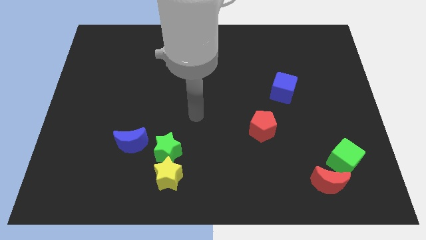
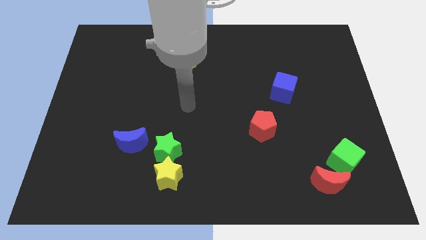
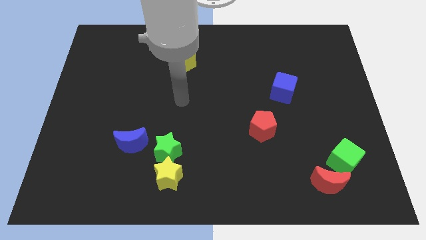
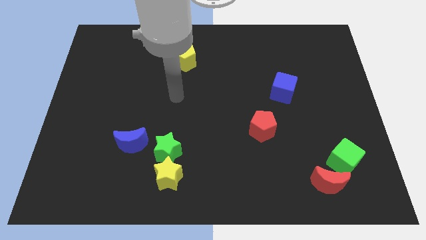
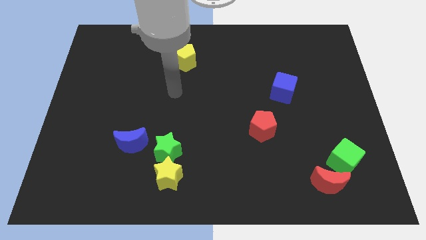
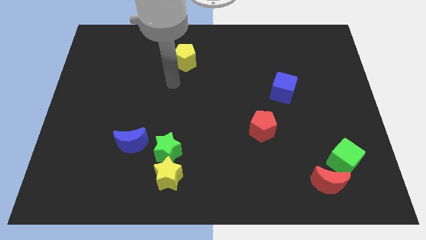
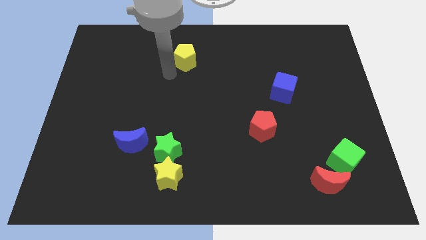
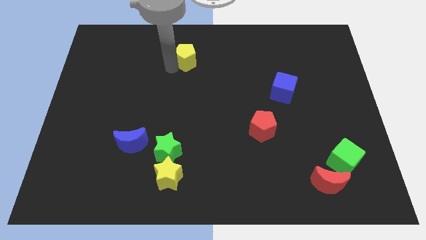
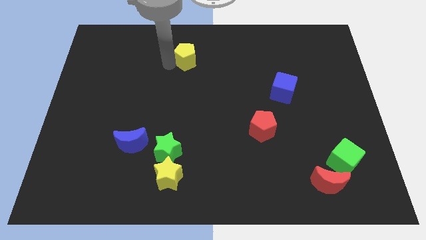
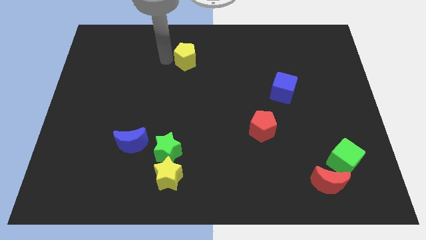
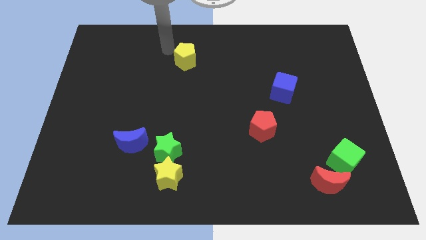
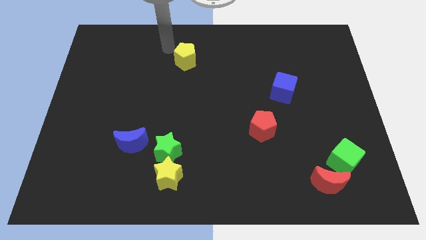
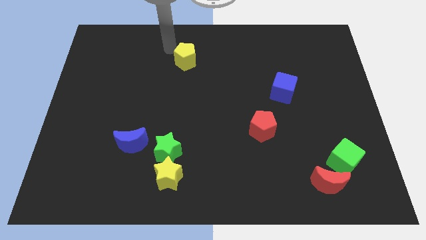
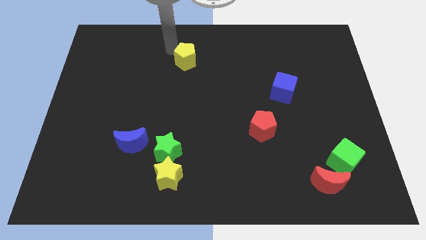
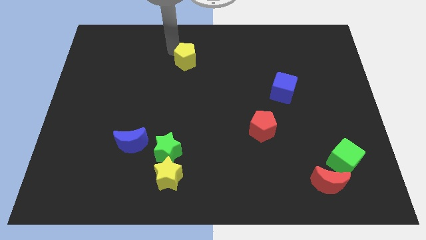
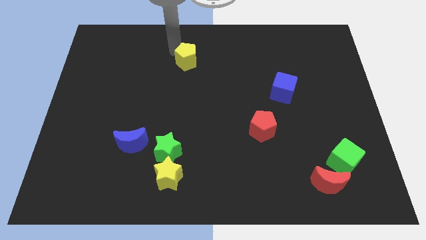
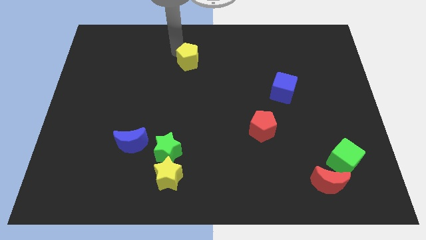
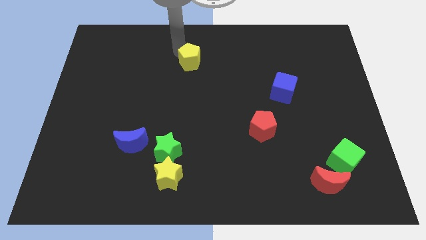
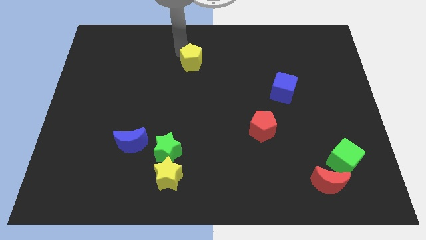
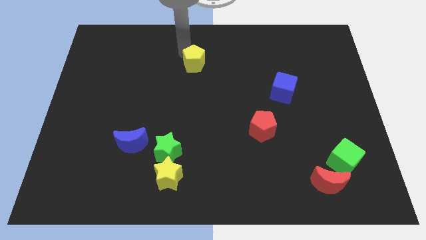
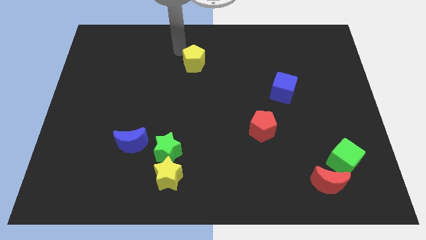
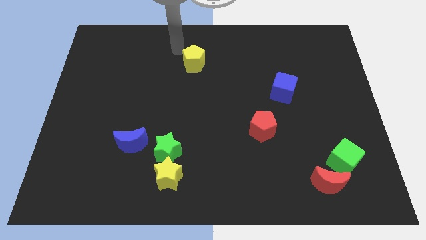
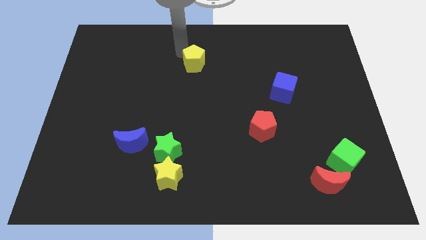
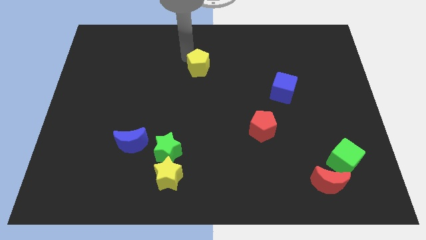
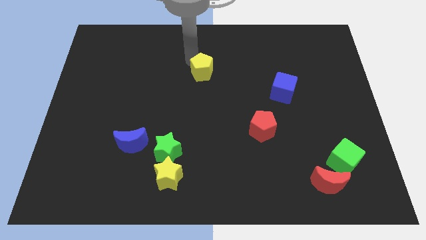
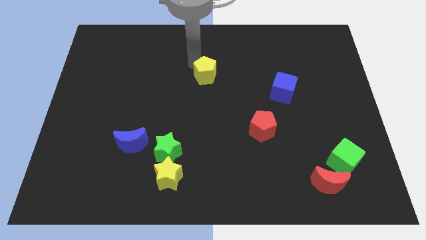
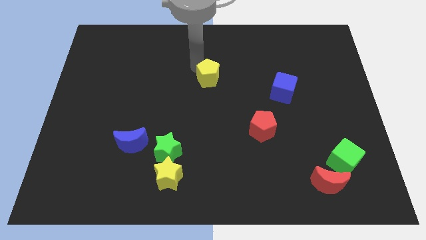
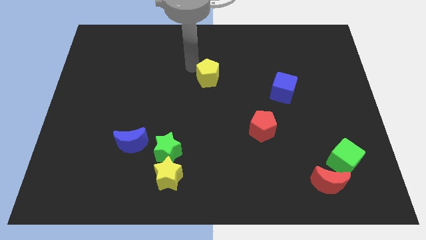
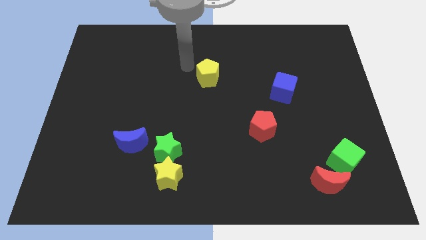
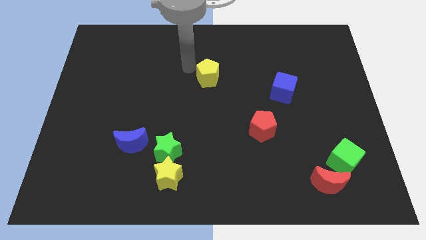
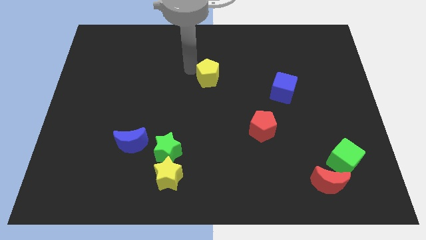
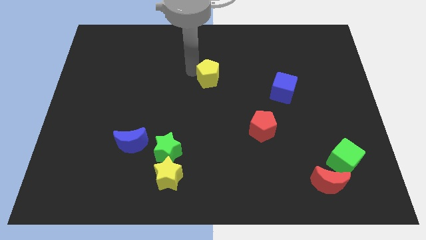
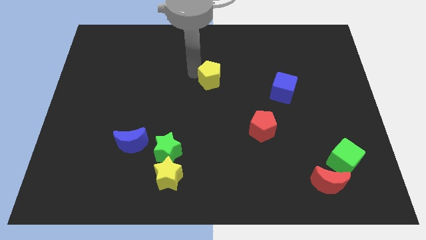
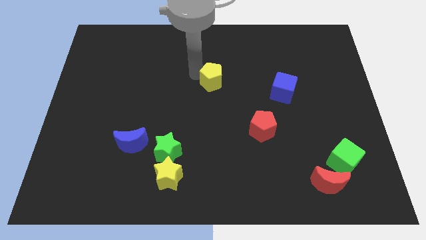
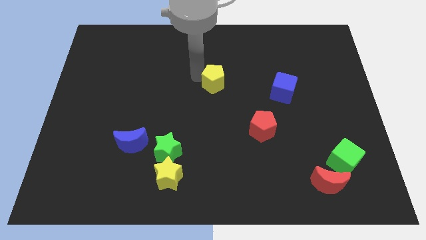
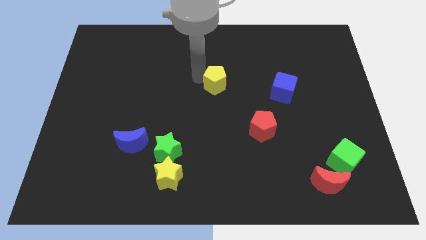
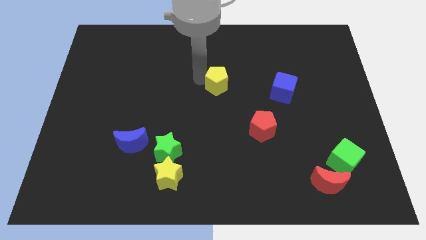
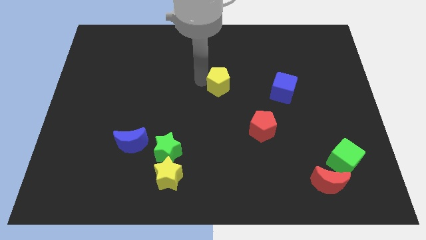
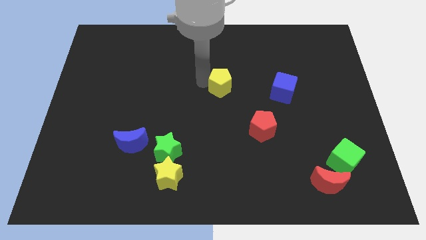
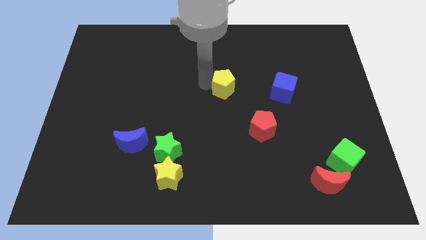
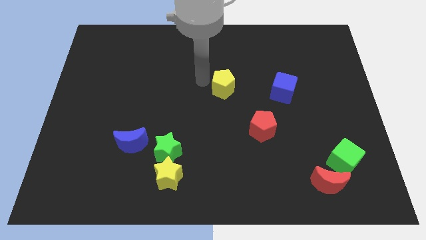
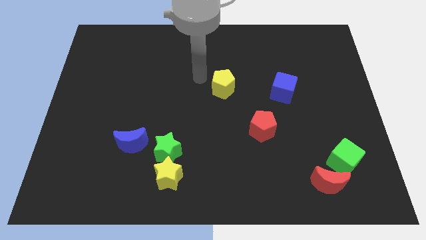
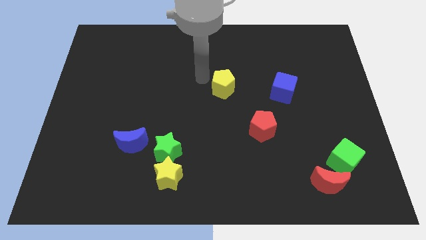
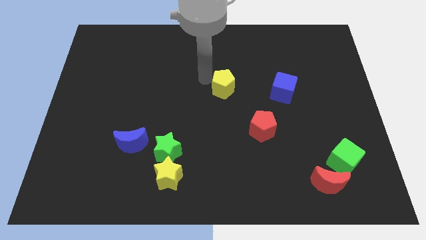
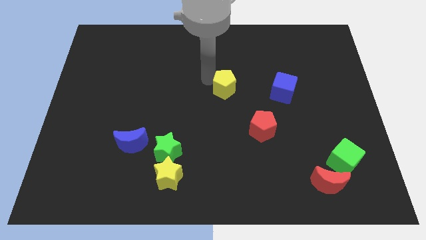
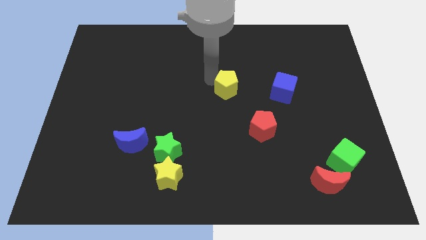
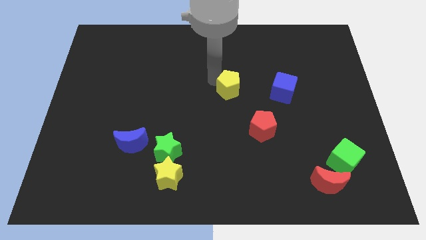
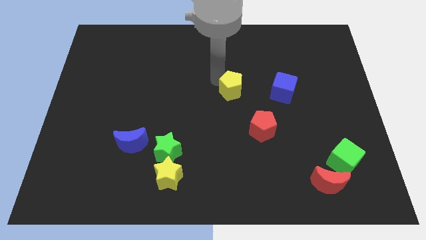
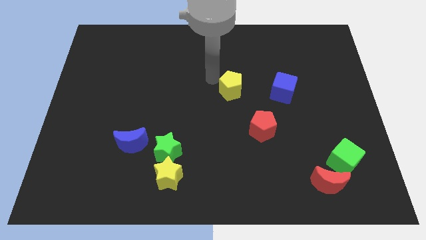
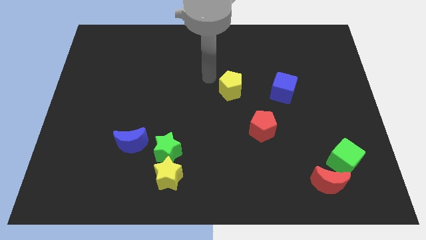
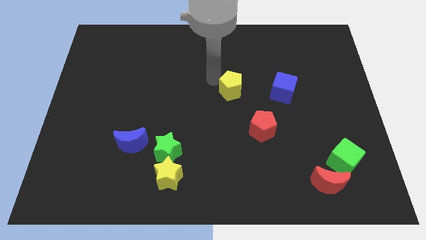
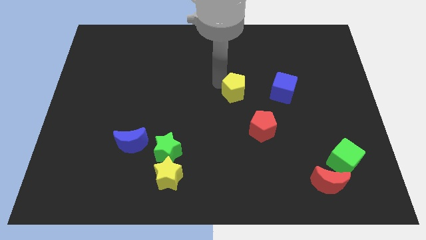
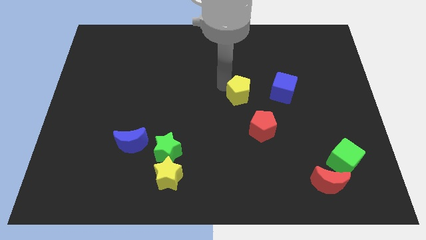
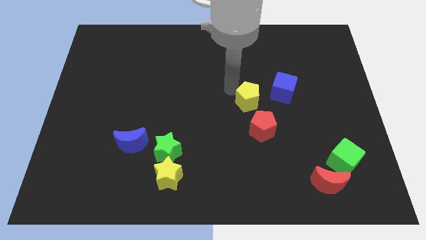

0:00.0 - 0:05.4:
slide the yellow pentagon diagonally downwards and to the right

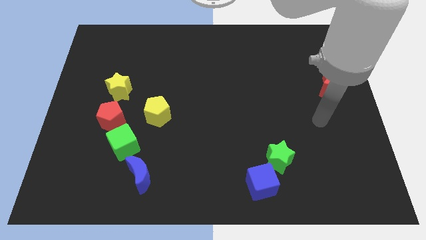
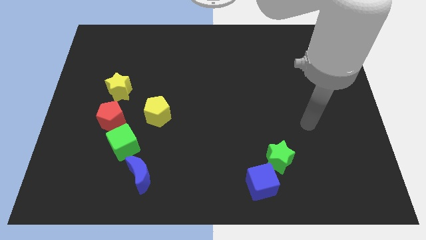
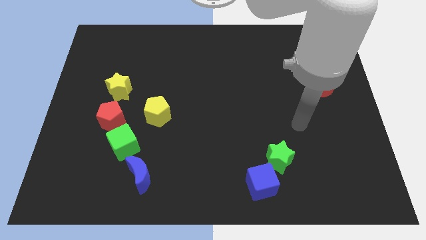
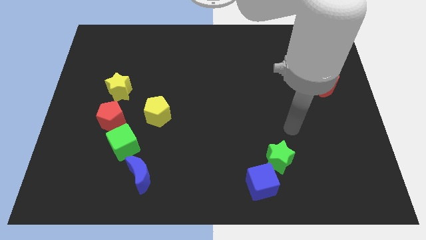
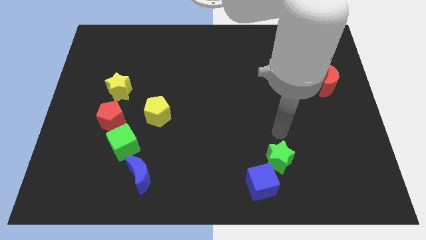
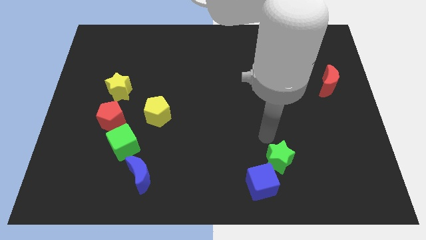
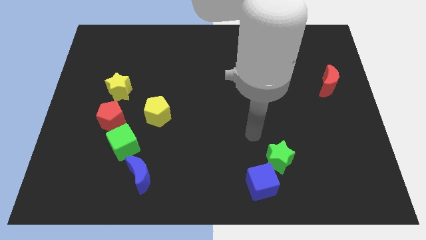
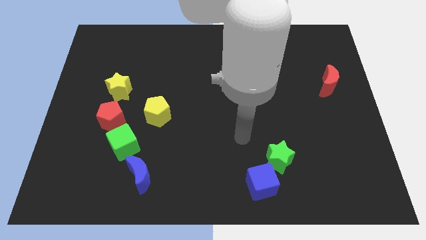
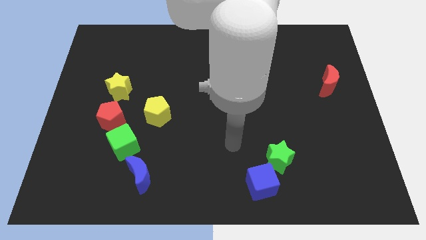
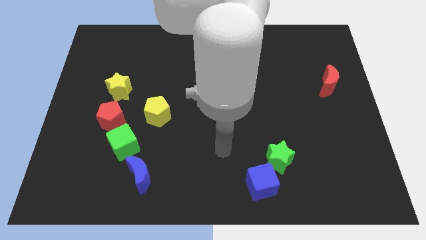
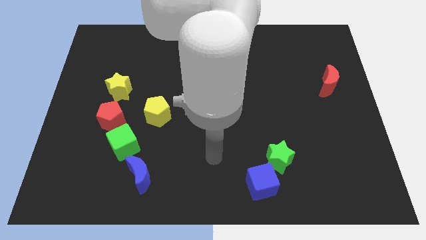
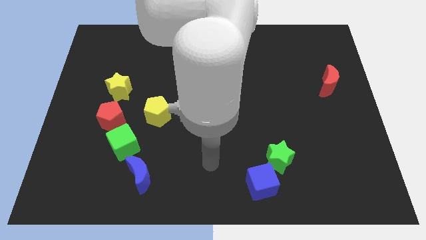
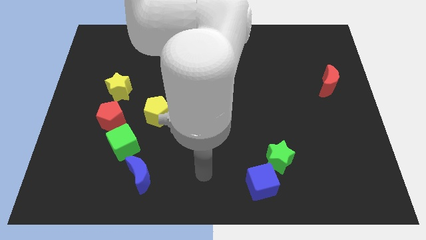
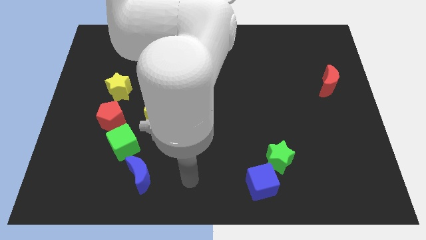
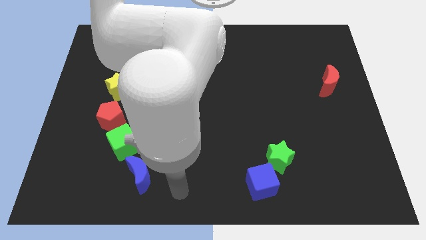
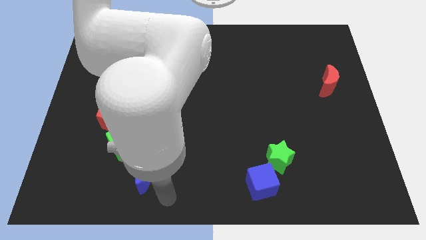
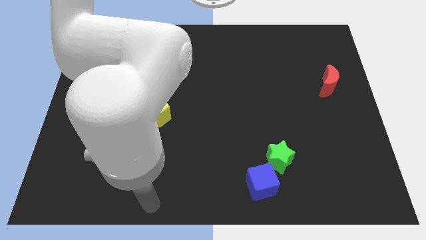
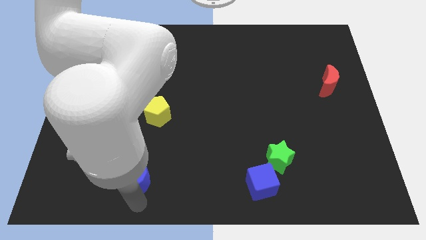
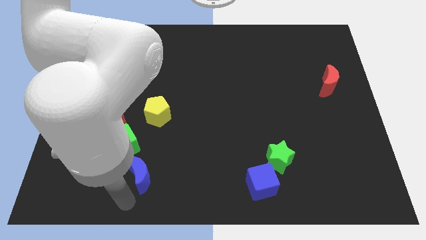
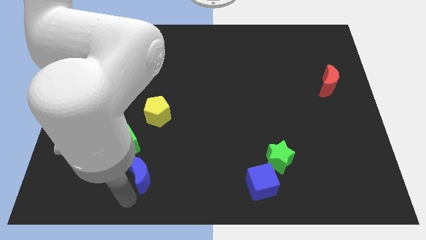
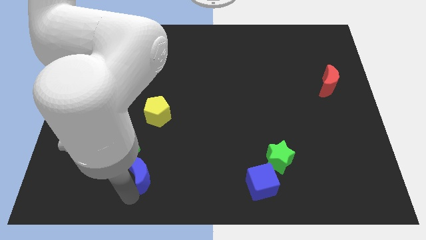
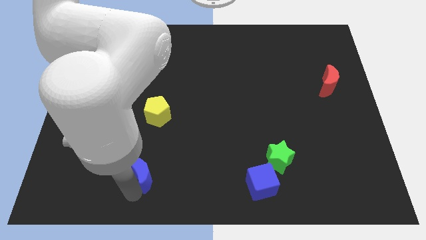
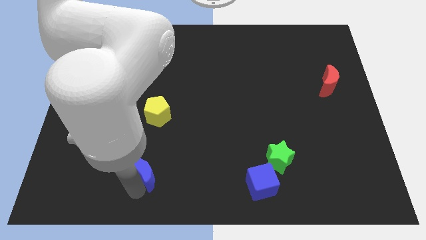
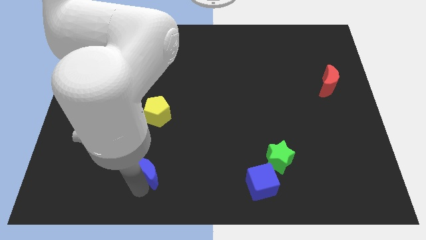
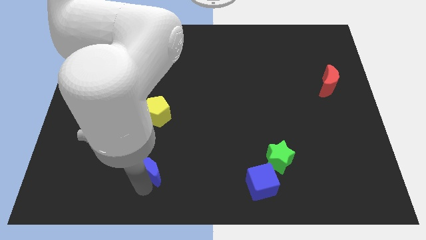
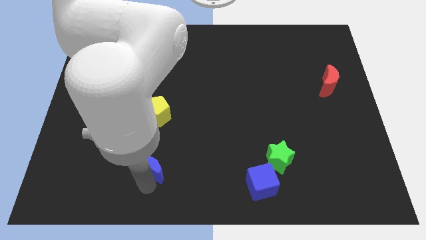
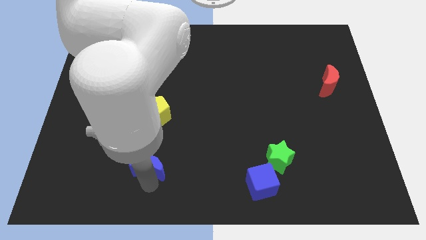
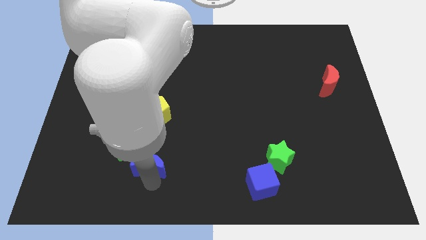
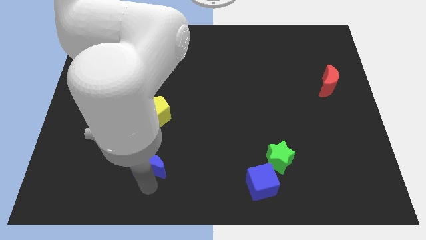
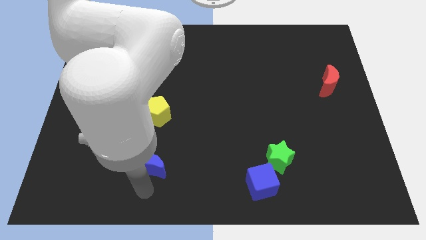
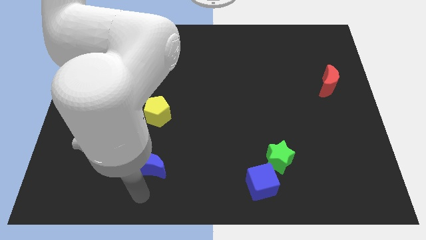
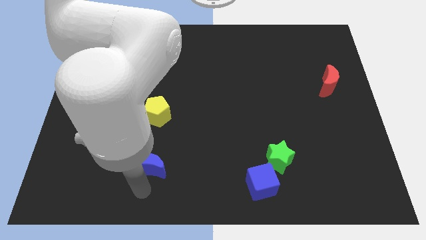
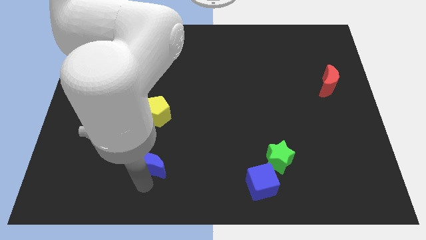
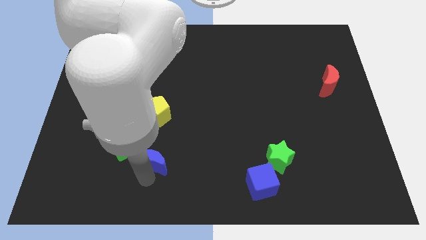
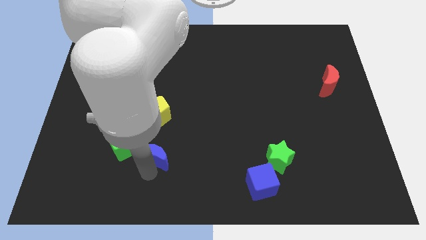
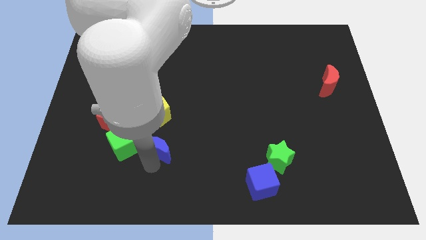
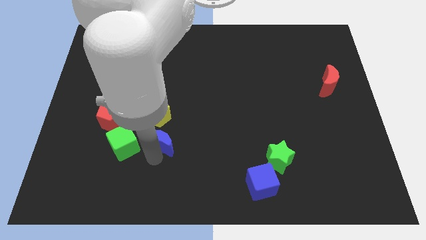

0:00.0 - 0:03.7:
slide the blue moon up a bit
